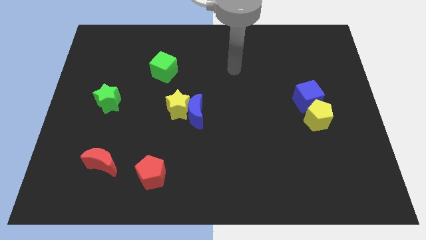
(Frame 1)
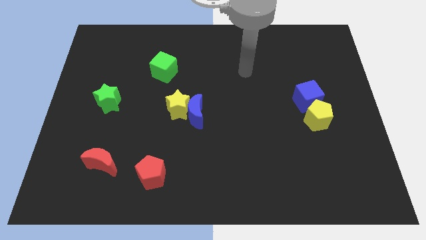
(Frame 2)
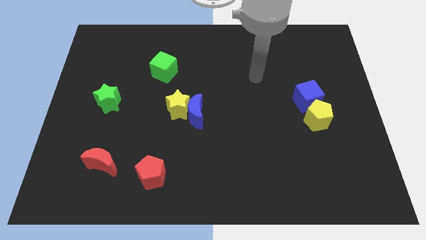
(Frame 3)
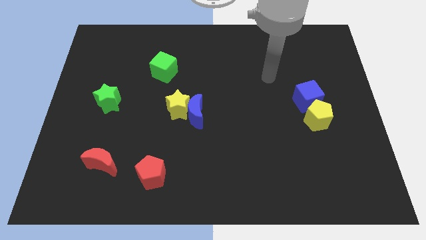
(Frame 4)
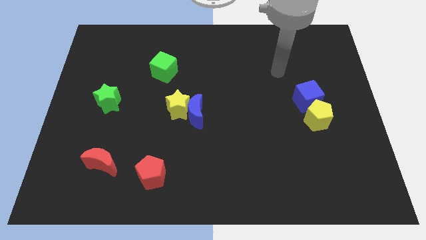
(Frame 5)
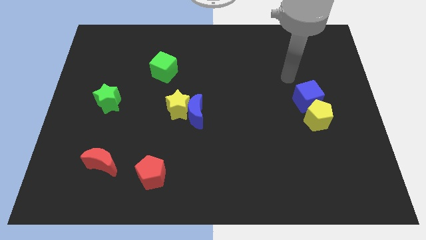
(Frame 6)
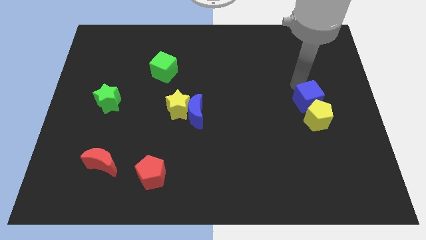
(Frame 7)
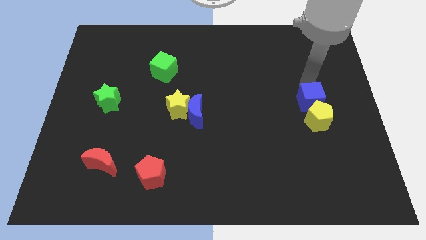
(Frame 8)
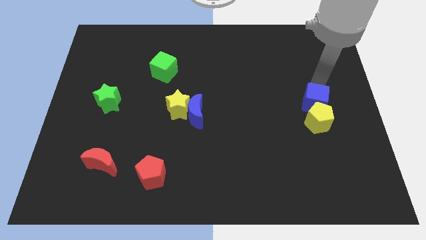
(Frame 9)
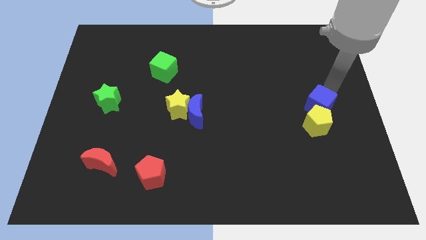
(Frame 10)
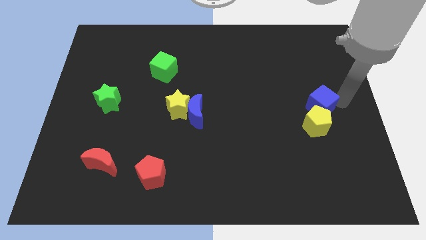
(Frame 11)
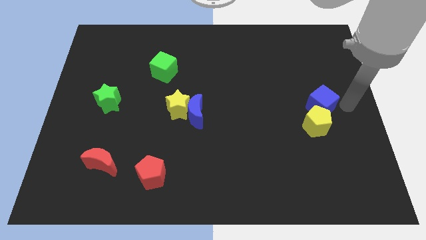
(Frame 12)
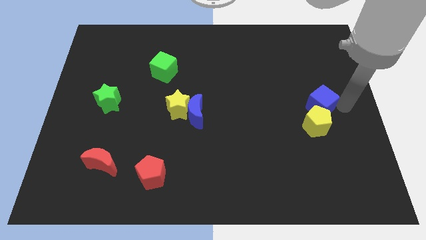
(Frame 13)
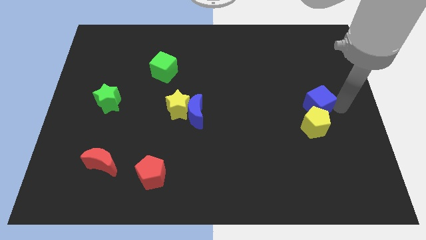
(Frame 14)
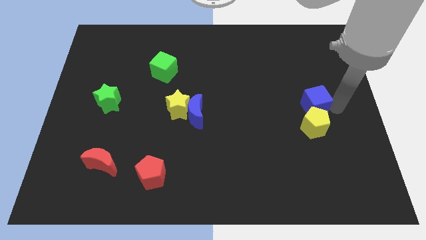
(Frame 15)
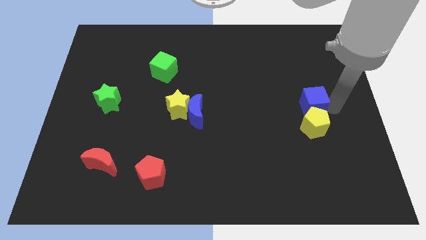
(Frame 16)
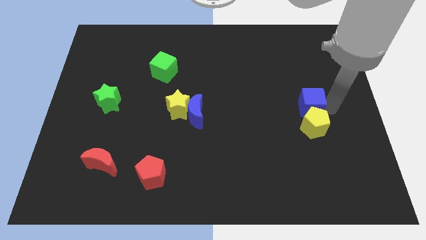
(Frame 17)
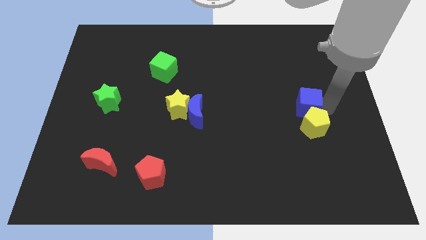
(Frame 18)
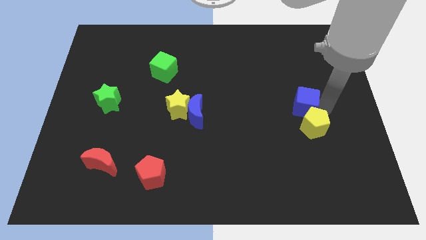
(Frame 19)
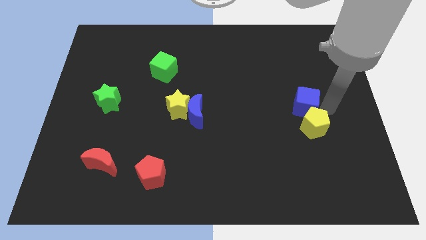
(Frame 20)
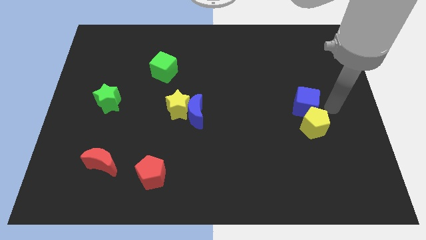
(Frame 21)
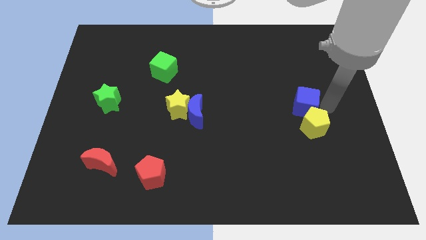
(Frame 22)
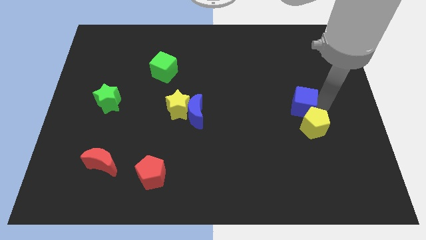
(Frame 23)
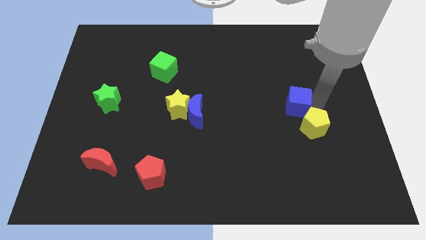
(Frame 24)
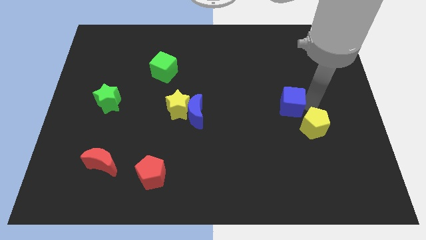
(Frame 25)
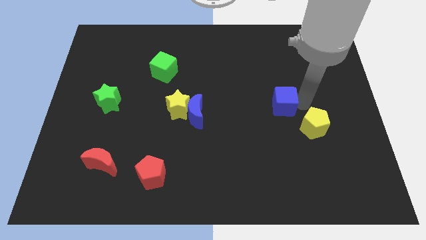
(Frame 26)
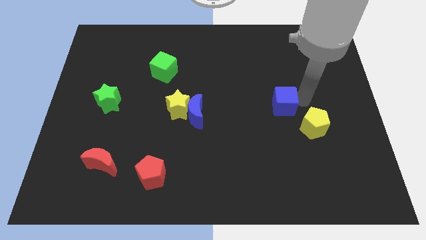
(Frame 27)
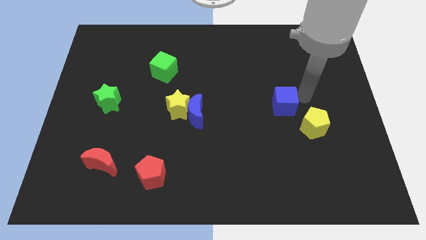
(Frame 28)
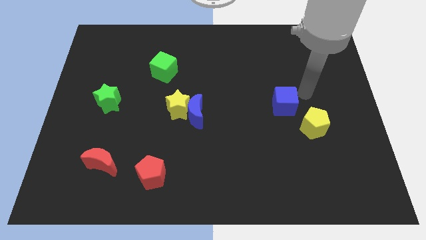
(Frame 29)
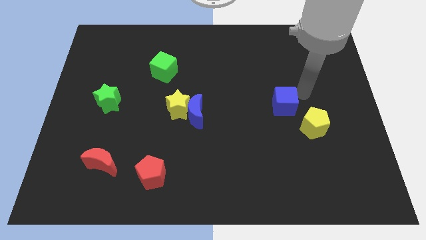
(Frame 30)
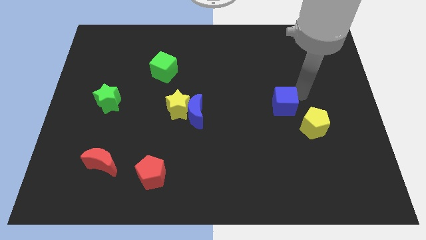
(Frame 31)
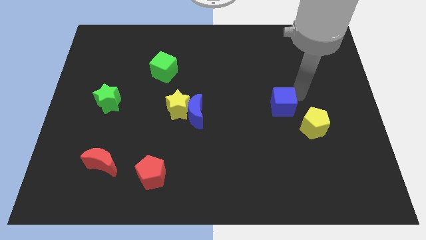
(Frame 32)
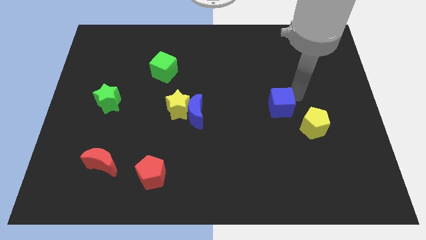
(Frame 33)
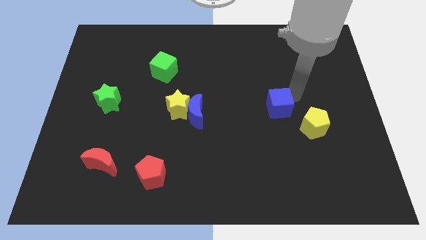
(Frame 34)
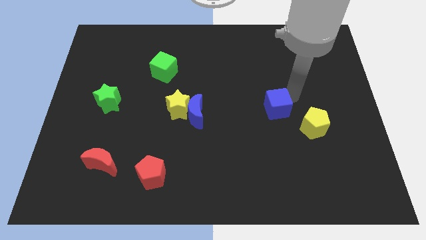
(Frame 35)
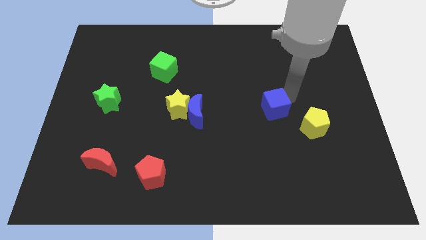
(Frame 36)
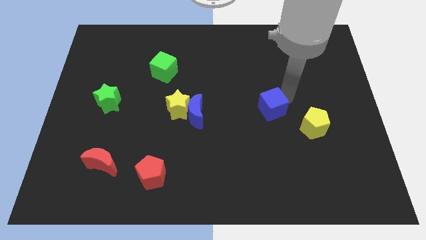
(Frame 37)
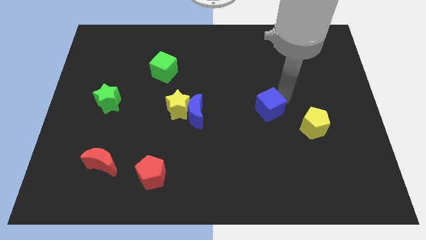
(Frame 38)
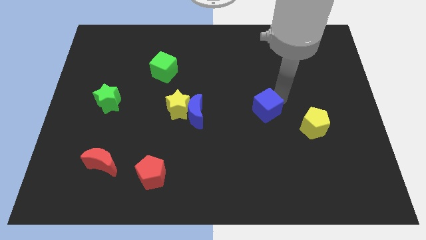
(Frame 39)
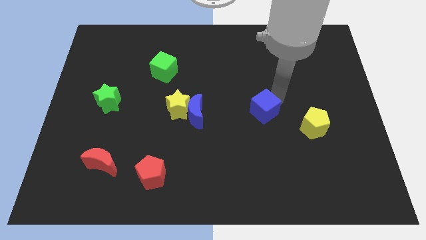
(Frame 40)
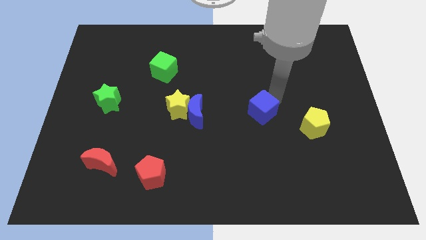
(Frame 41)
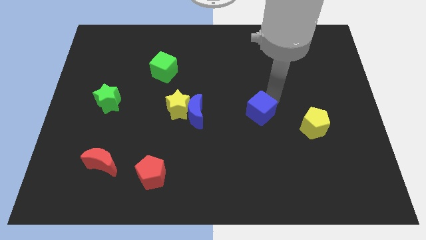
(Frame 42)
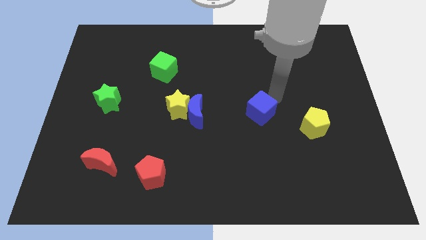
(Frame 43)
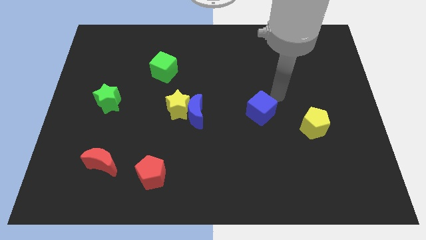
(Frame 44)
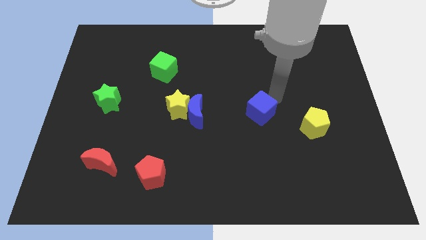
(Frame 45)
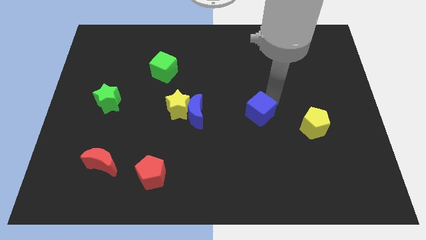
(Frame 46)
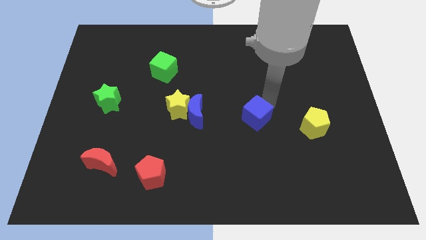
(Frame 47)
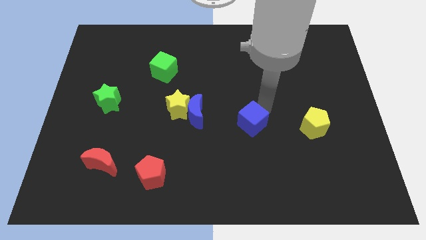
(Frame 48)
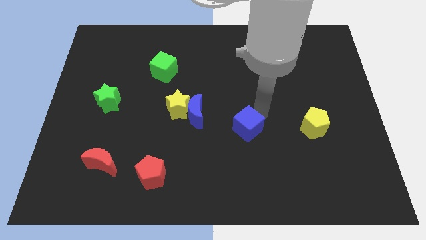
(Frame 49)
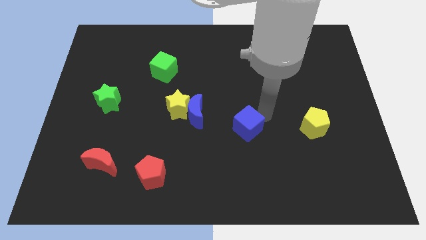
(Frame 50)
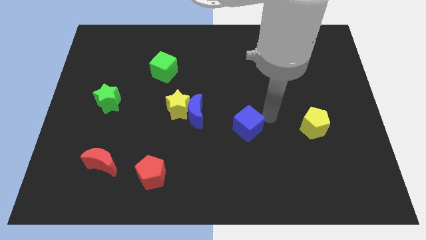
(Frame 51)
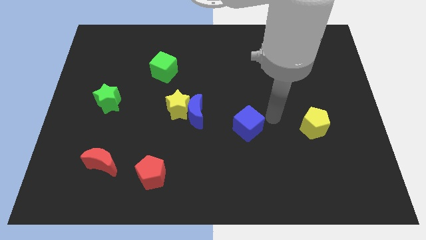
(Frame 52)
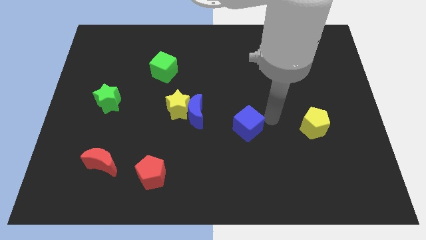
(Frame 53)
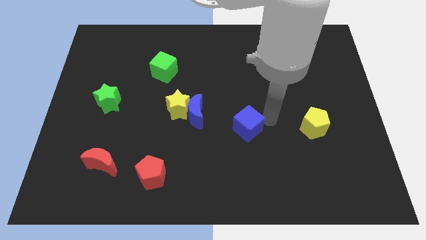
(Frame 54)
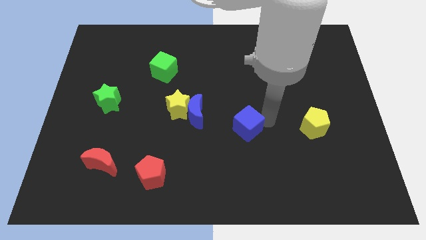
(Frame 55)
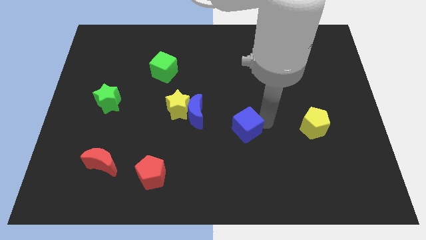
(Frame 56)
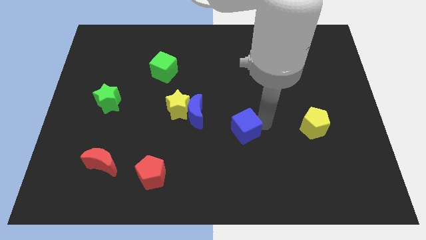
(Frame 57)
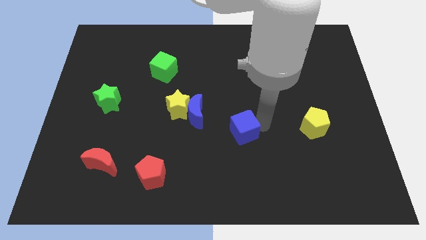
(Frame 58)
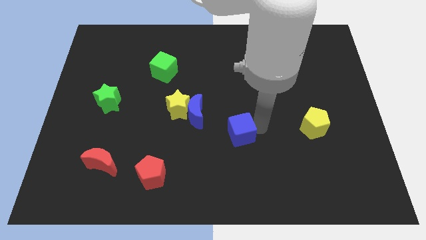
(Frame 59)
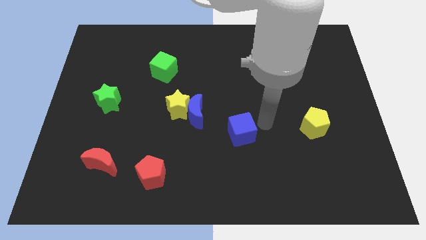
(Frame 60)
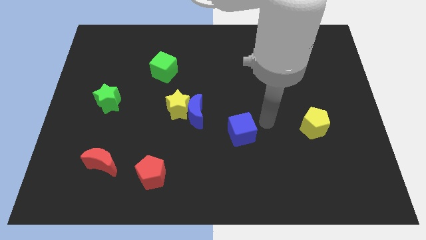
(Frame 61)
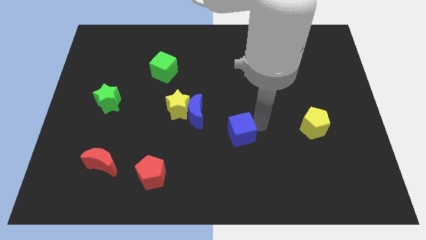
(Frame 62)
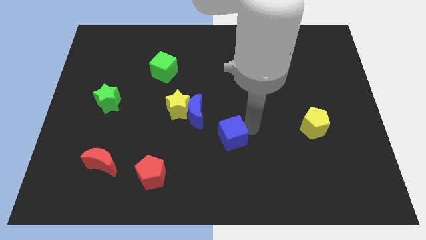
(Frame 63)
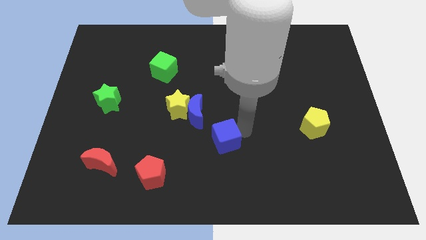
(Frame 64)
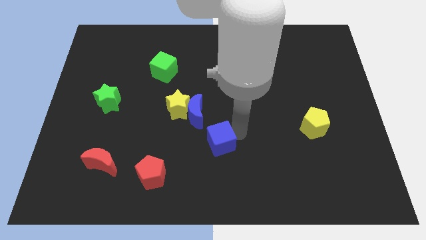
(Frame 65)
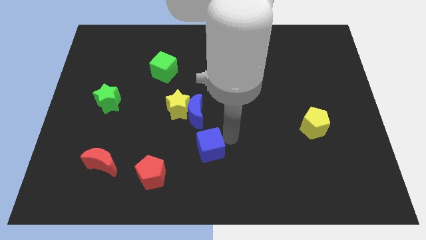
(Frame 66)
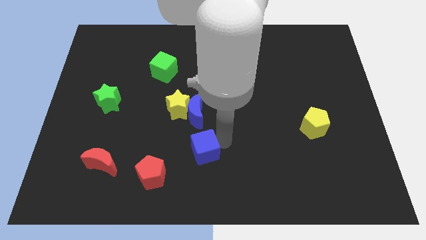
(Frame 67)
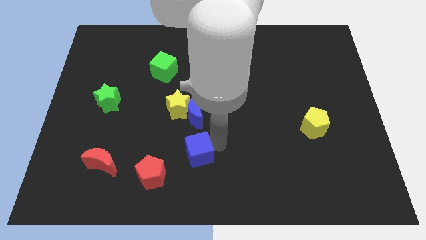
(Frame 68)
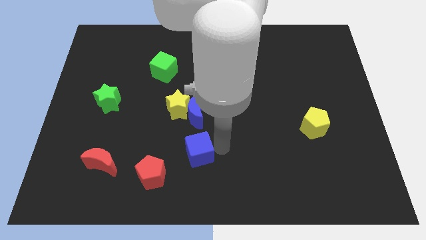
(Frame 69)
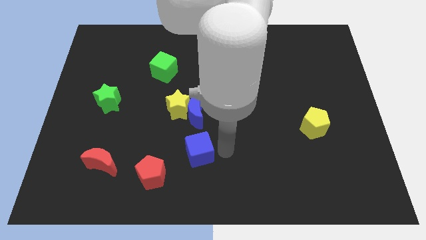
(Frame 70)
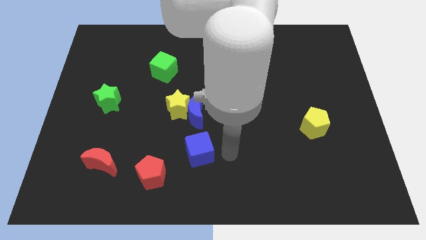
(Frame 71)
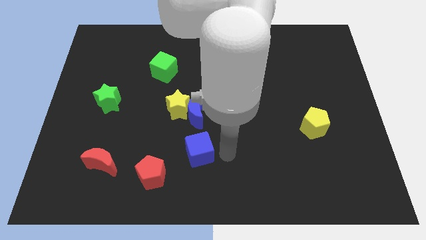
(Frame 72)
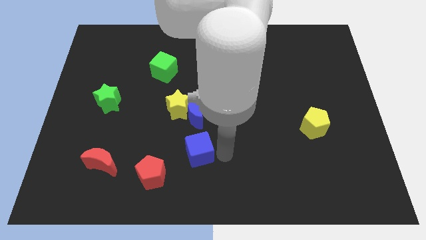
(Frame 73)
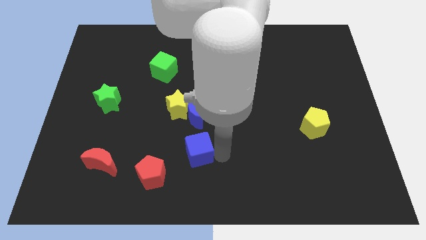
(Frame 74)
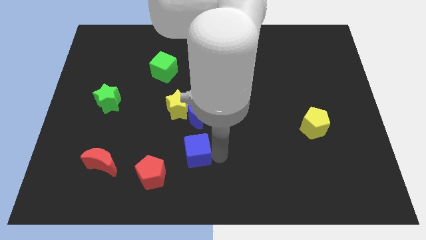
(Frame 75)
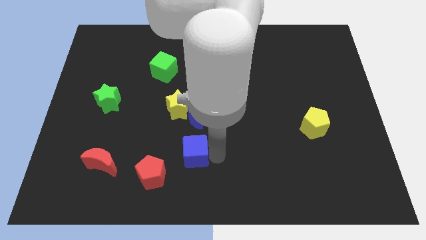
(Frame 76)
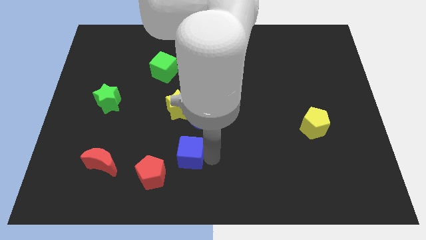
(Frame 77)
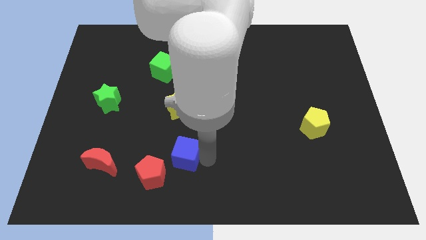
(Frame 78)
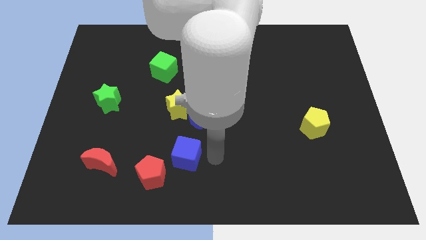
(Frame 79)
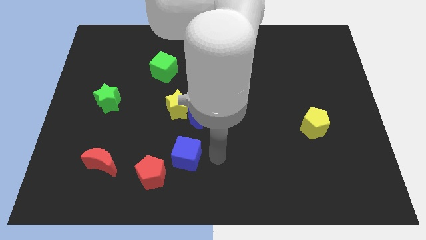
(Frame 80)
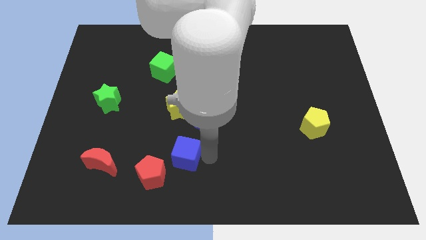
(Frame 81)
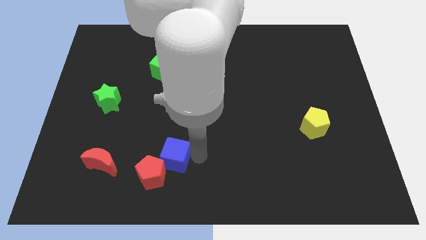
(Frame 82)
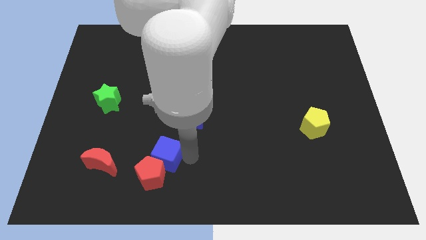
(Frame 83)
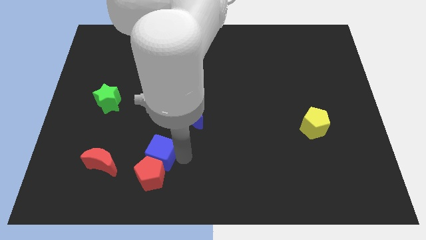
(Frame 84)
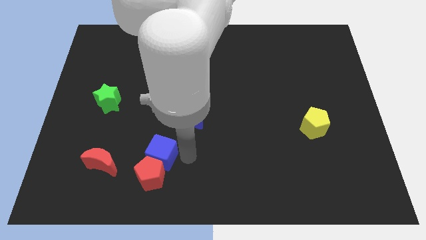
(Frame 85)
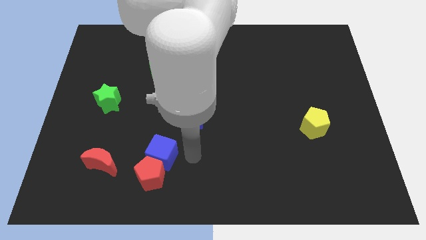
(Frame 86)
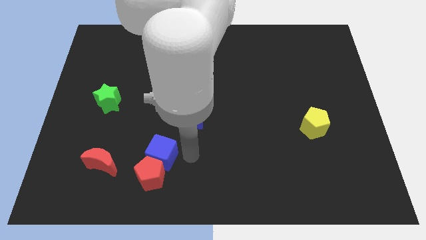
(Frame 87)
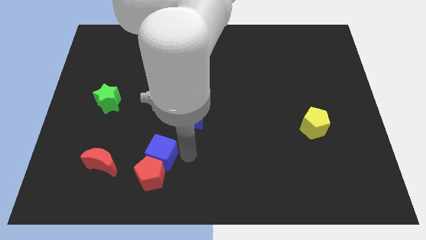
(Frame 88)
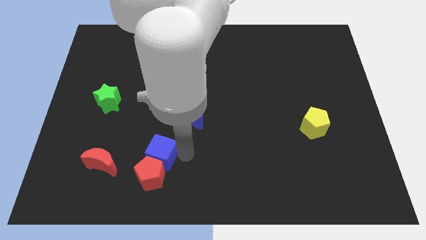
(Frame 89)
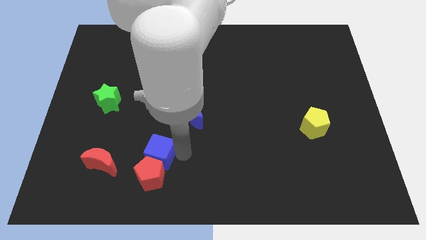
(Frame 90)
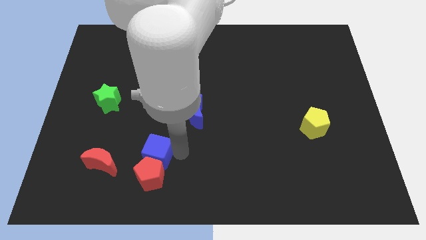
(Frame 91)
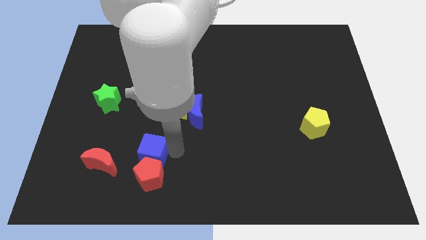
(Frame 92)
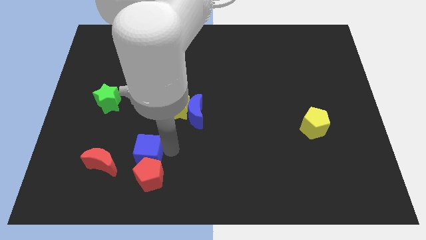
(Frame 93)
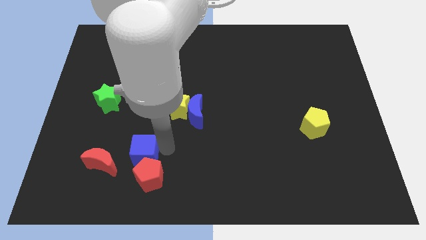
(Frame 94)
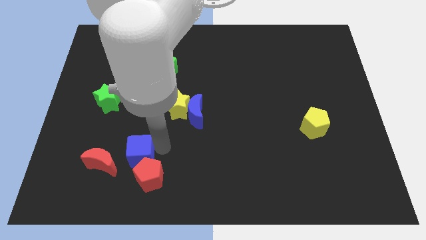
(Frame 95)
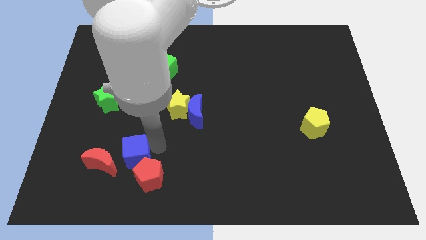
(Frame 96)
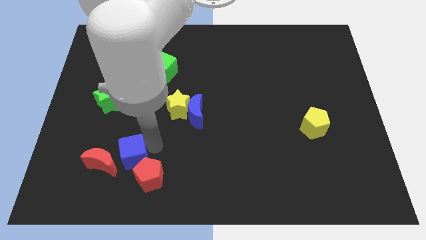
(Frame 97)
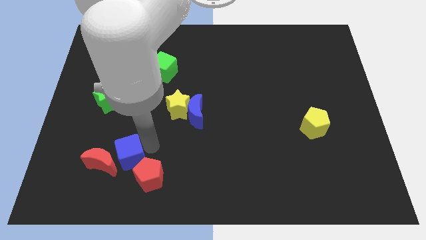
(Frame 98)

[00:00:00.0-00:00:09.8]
slide the blue cube to the red moon
